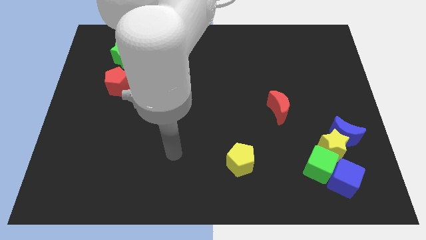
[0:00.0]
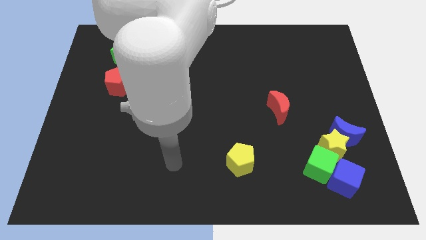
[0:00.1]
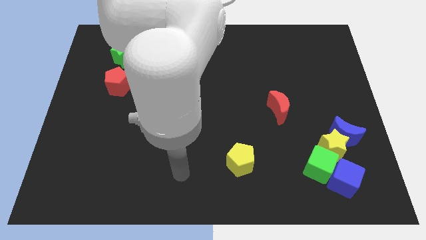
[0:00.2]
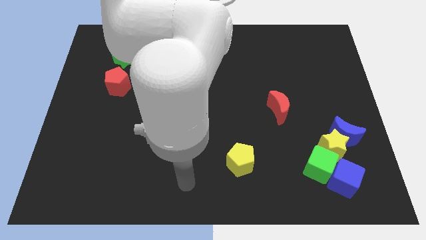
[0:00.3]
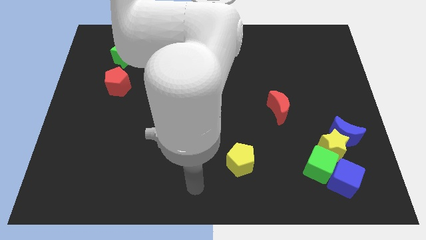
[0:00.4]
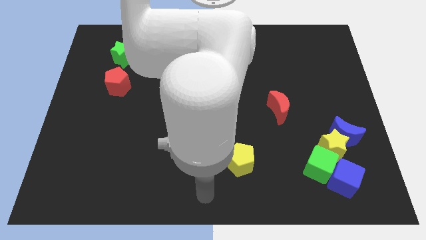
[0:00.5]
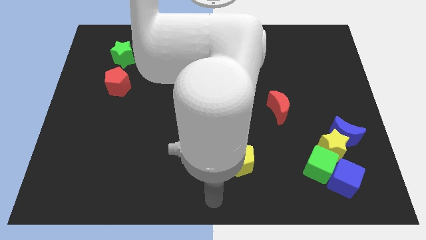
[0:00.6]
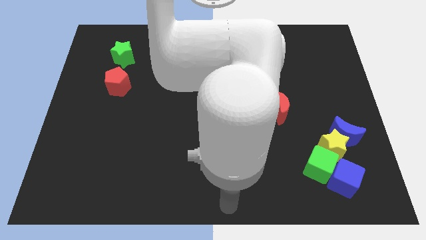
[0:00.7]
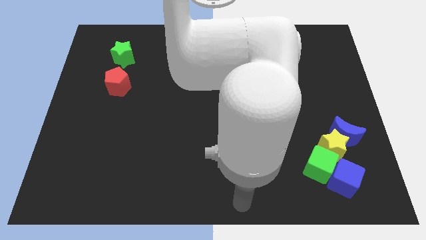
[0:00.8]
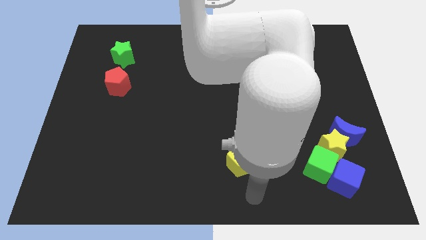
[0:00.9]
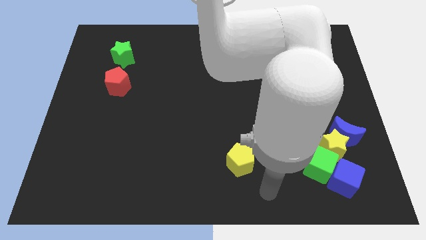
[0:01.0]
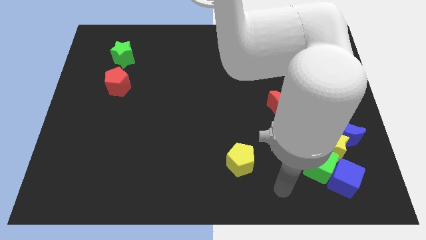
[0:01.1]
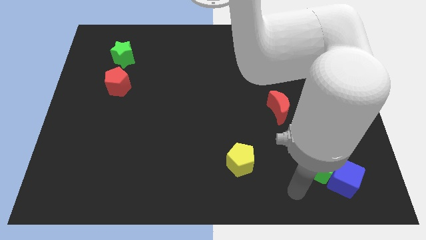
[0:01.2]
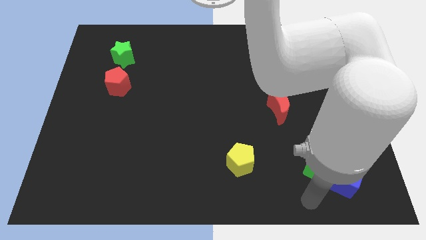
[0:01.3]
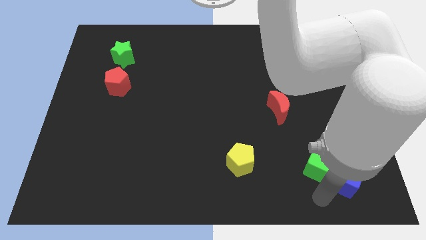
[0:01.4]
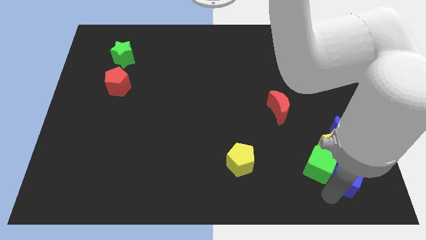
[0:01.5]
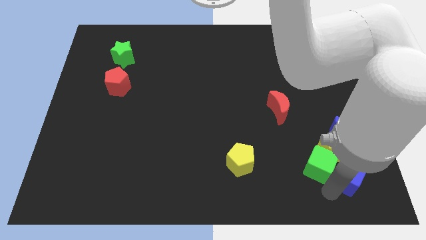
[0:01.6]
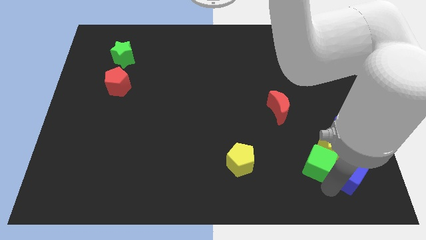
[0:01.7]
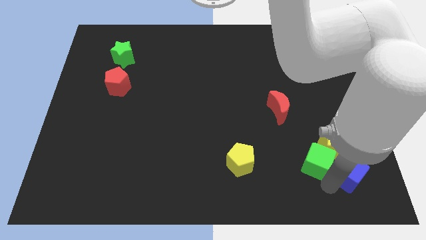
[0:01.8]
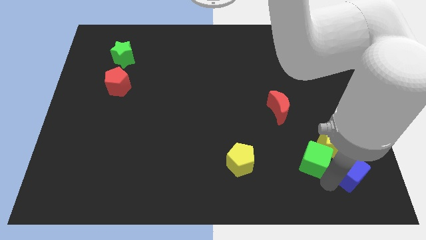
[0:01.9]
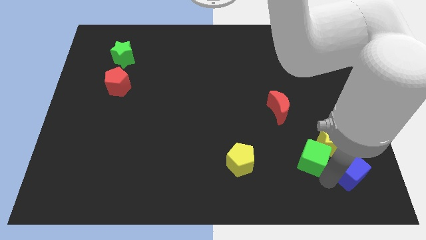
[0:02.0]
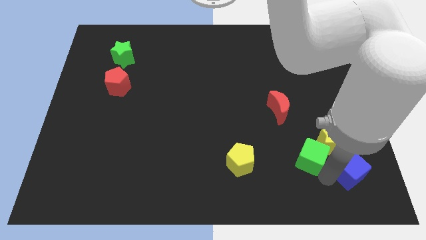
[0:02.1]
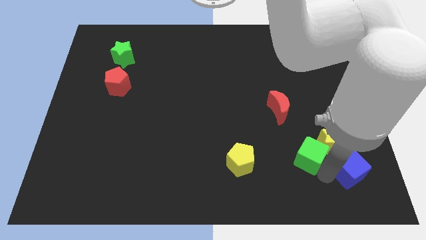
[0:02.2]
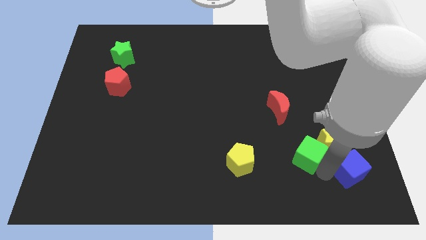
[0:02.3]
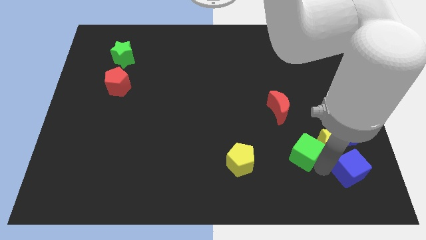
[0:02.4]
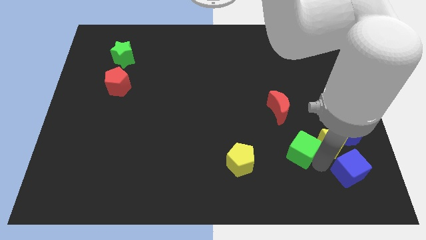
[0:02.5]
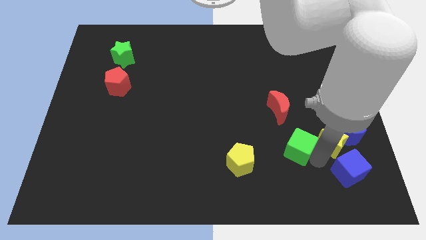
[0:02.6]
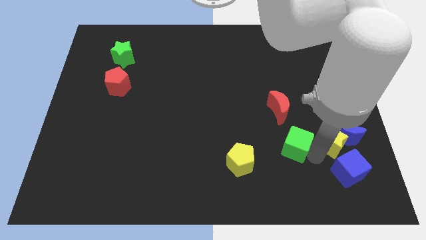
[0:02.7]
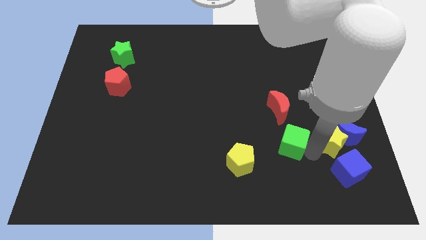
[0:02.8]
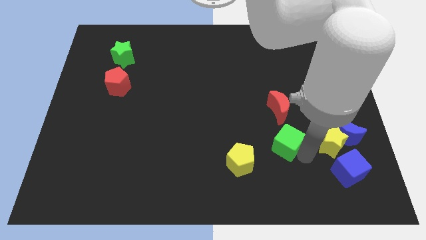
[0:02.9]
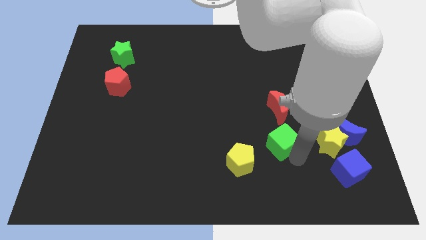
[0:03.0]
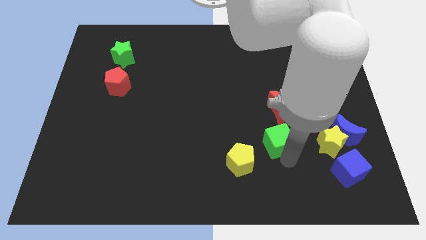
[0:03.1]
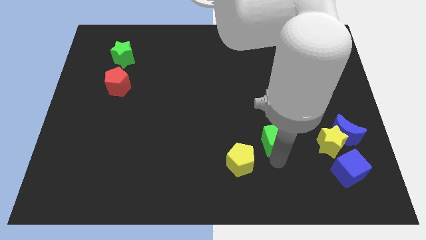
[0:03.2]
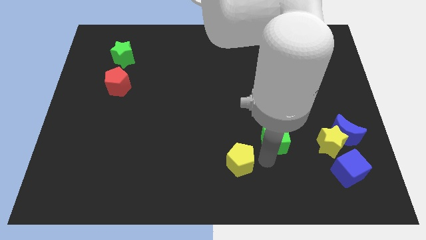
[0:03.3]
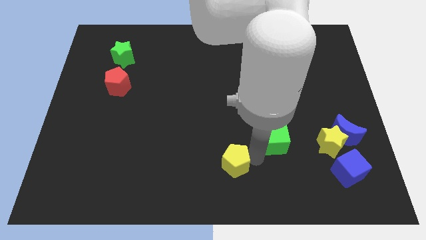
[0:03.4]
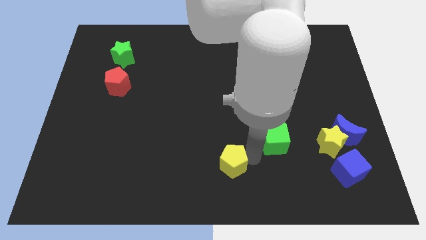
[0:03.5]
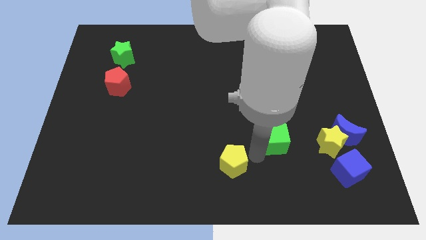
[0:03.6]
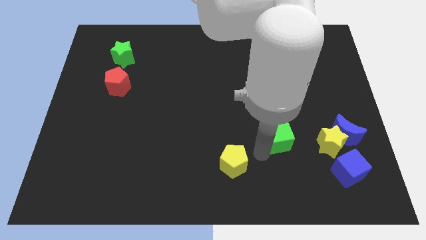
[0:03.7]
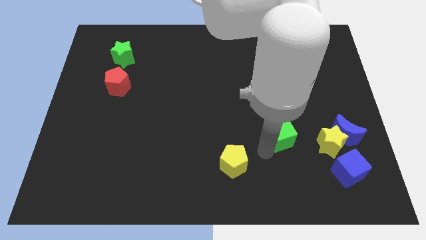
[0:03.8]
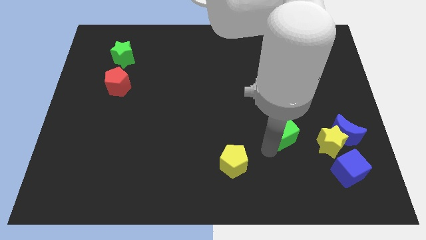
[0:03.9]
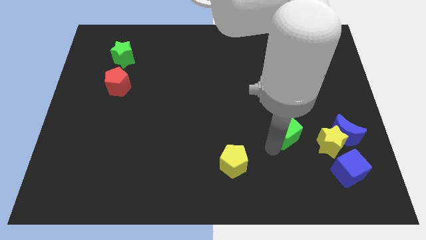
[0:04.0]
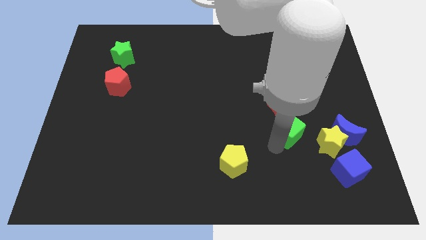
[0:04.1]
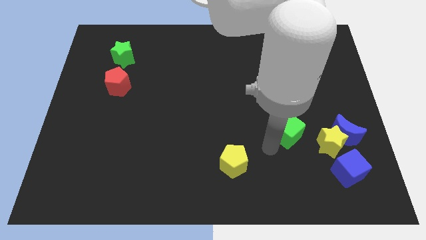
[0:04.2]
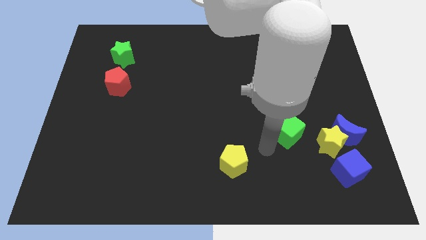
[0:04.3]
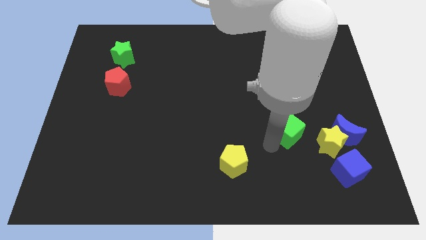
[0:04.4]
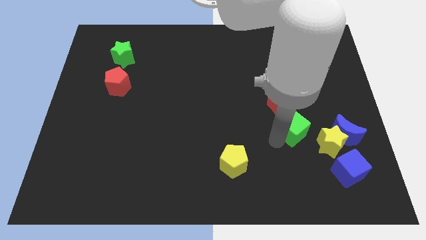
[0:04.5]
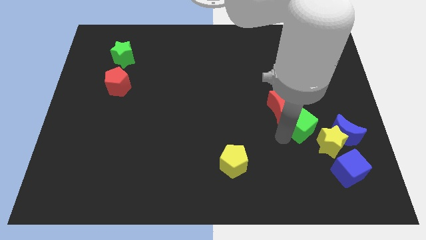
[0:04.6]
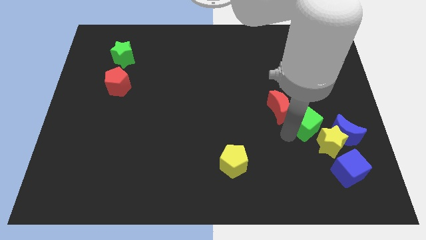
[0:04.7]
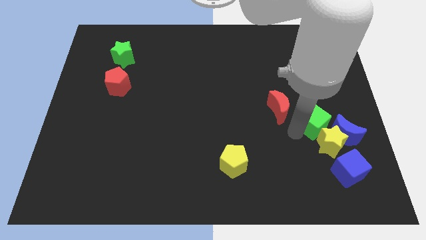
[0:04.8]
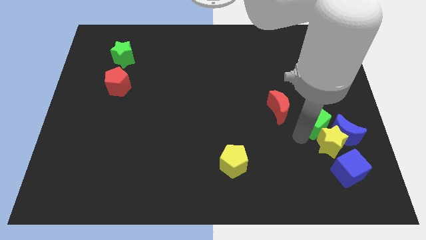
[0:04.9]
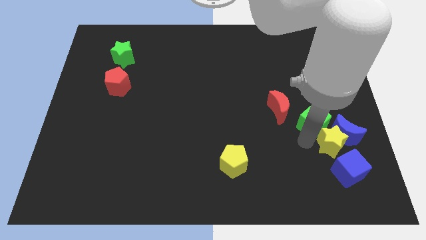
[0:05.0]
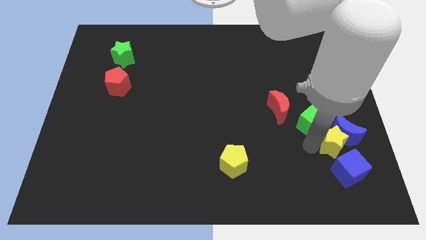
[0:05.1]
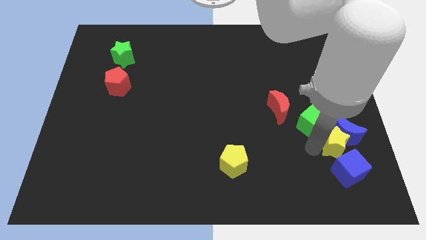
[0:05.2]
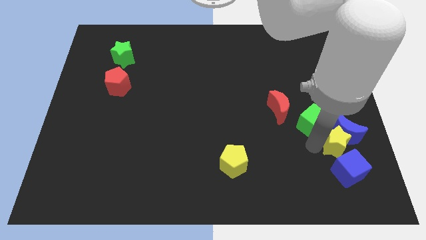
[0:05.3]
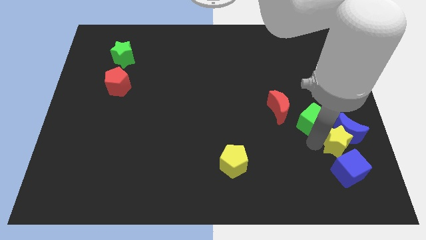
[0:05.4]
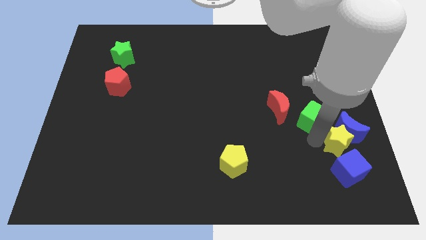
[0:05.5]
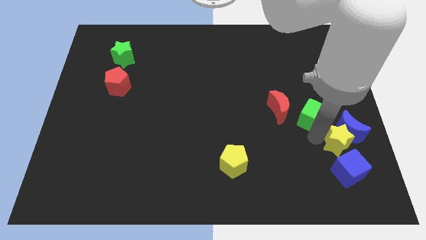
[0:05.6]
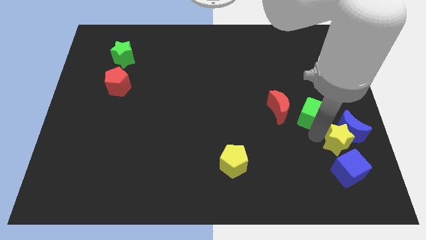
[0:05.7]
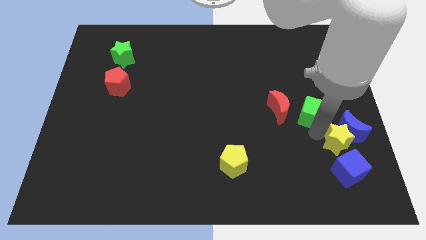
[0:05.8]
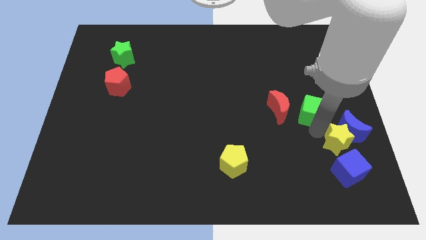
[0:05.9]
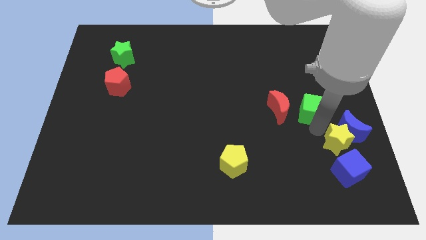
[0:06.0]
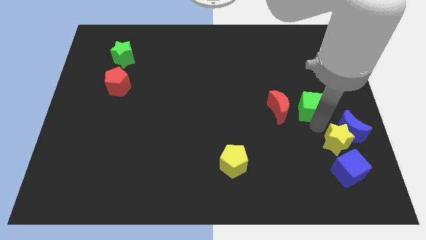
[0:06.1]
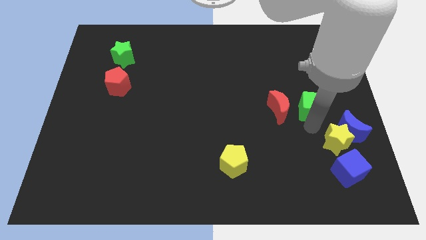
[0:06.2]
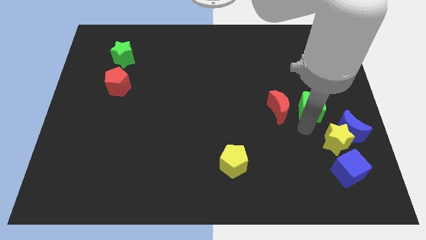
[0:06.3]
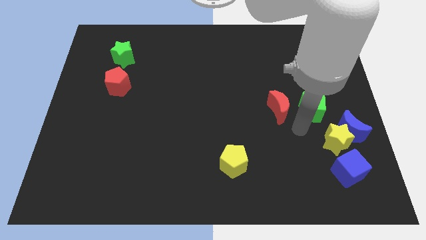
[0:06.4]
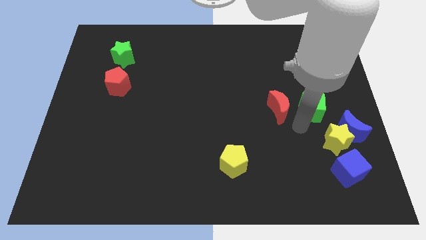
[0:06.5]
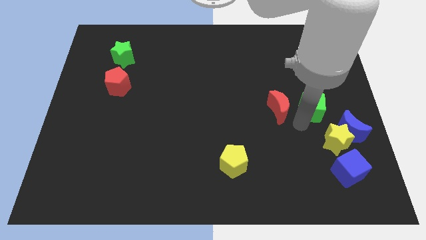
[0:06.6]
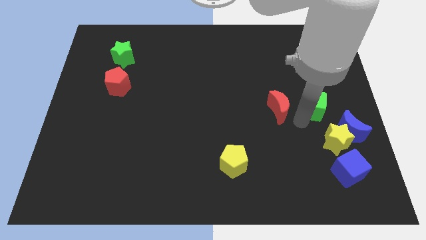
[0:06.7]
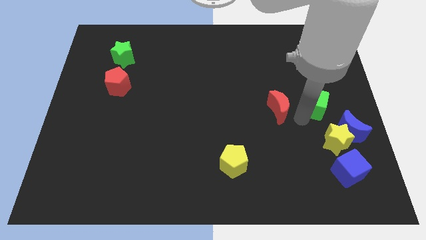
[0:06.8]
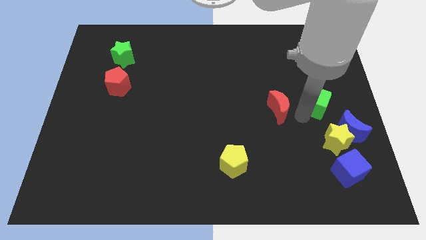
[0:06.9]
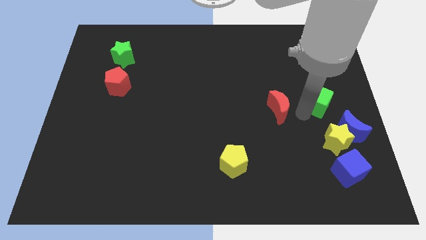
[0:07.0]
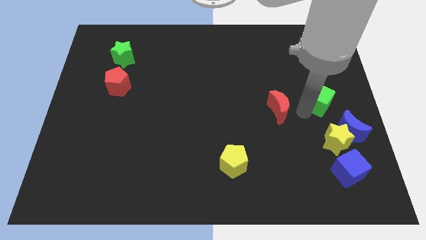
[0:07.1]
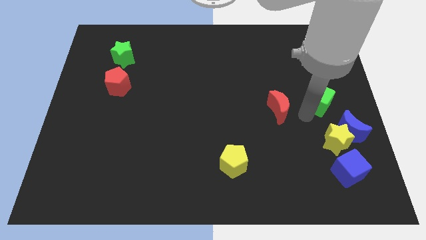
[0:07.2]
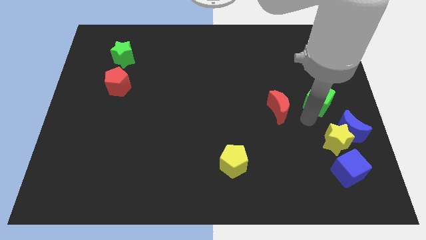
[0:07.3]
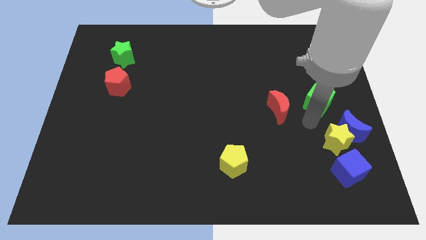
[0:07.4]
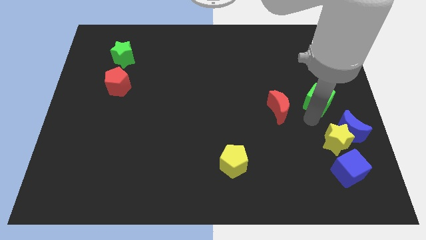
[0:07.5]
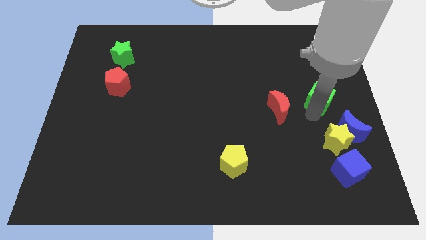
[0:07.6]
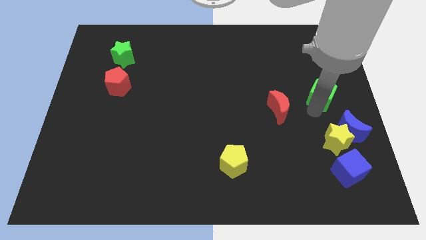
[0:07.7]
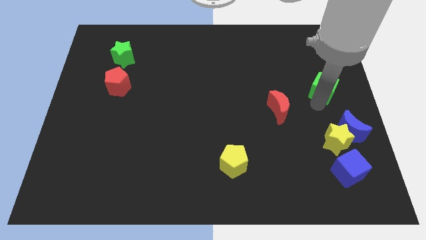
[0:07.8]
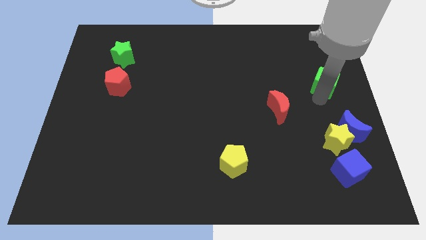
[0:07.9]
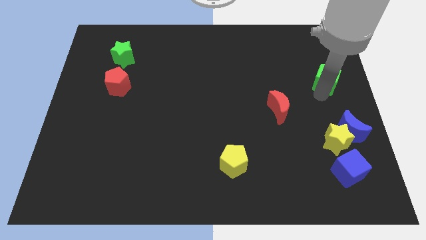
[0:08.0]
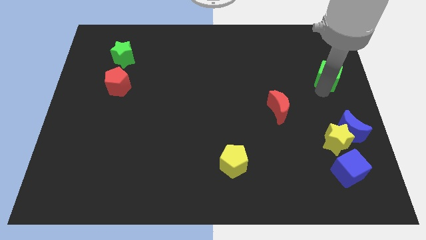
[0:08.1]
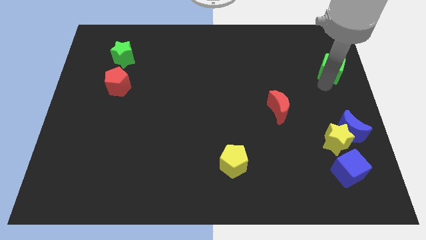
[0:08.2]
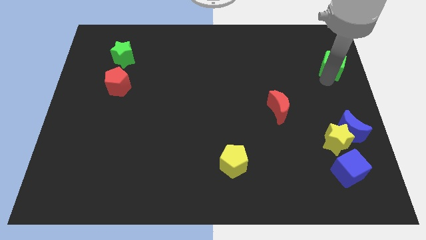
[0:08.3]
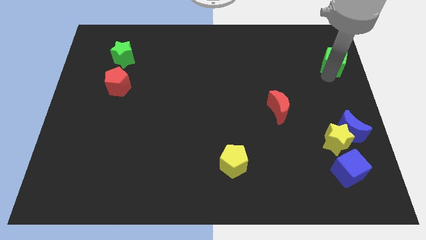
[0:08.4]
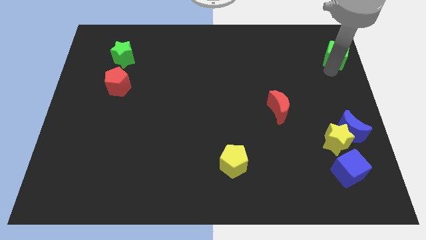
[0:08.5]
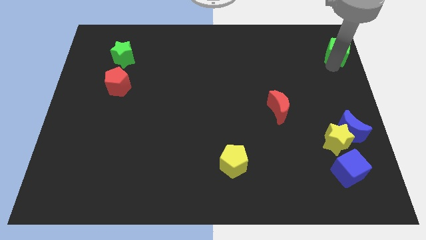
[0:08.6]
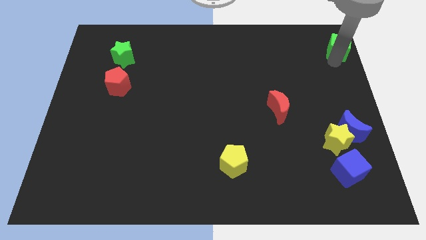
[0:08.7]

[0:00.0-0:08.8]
push the green cube to the top right
